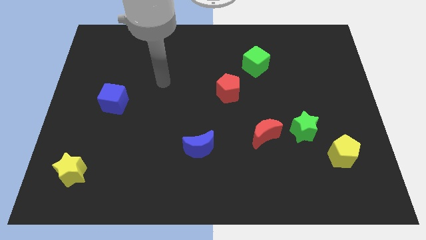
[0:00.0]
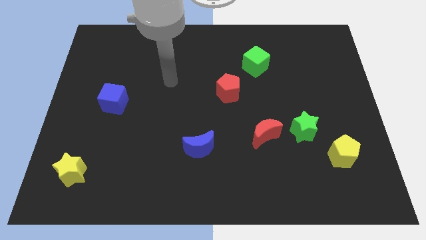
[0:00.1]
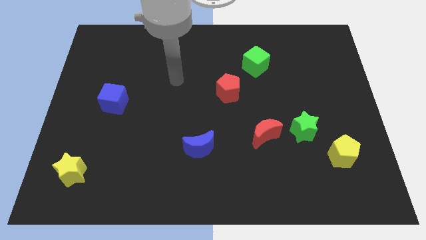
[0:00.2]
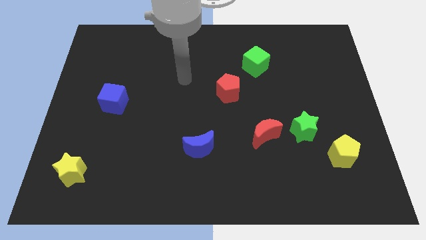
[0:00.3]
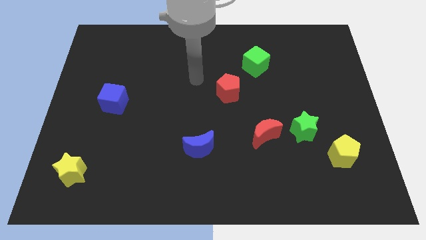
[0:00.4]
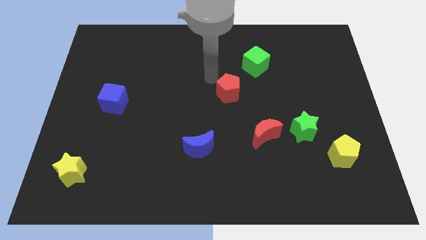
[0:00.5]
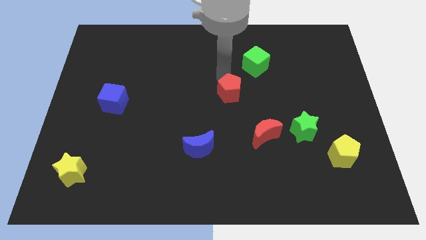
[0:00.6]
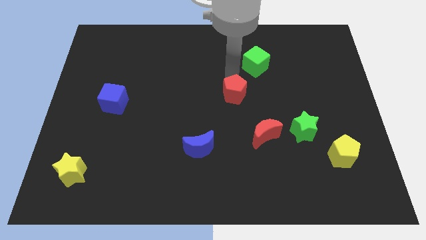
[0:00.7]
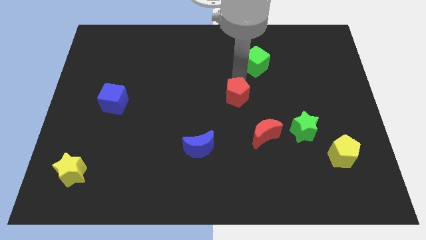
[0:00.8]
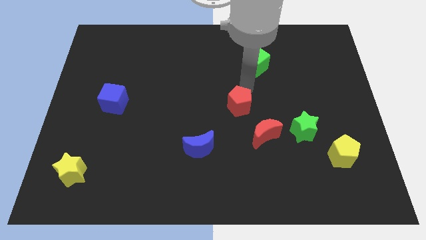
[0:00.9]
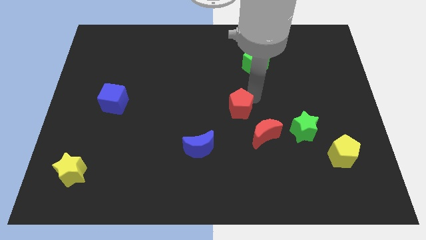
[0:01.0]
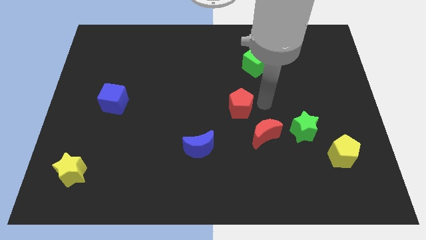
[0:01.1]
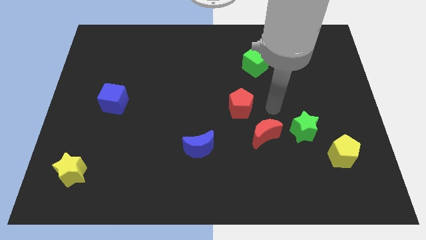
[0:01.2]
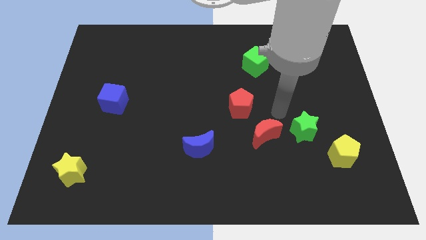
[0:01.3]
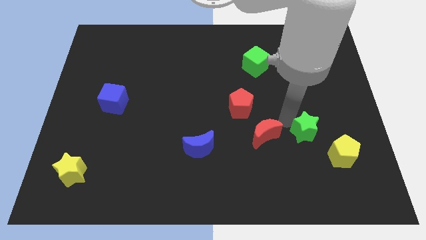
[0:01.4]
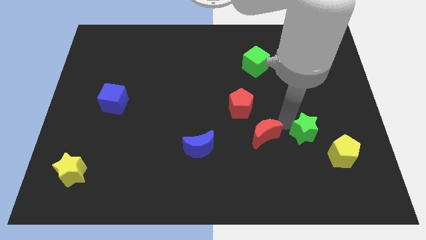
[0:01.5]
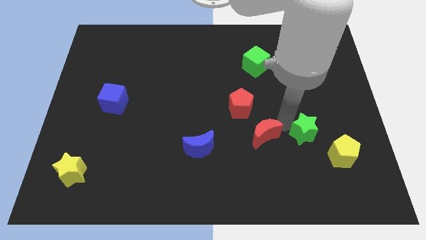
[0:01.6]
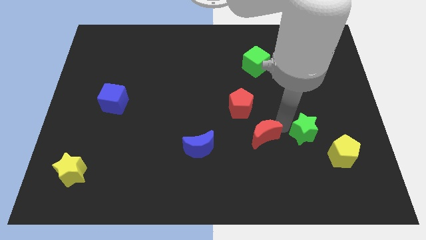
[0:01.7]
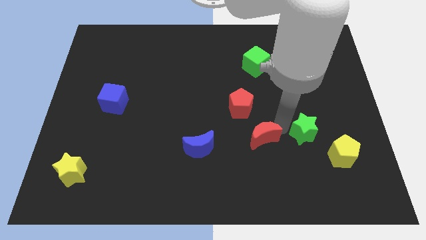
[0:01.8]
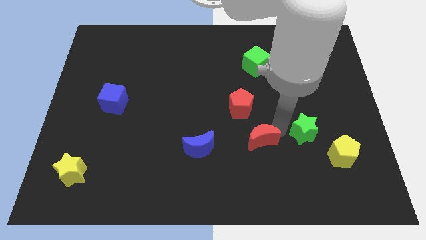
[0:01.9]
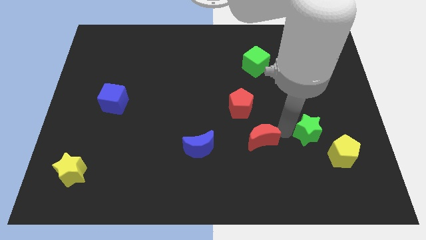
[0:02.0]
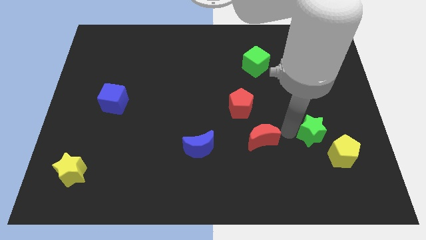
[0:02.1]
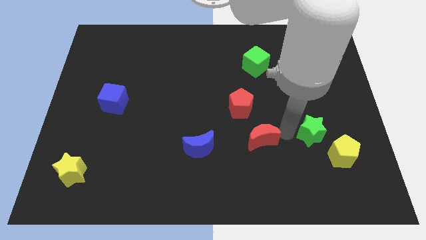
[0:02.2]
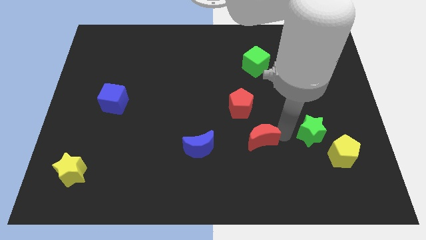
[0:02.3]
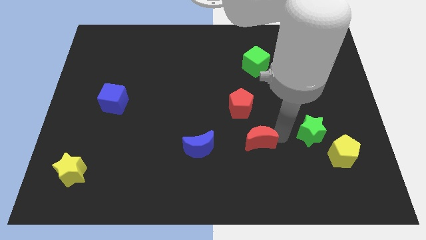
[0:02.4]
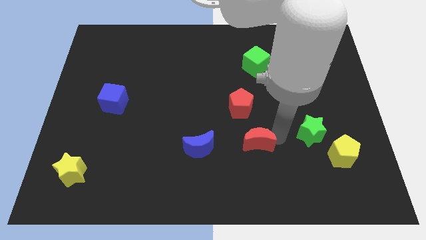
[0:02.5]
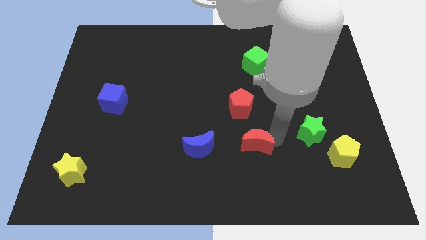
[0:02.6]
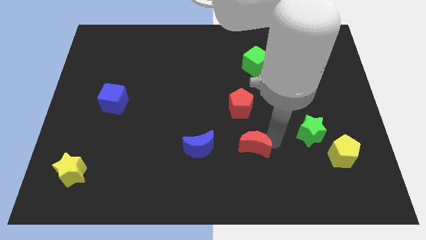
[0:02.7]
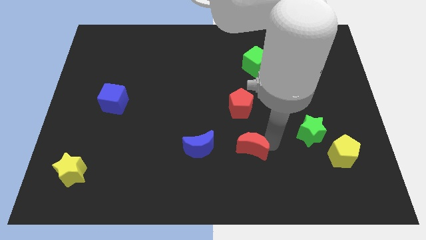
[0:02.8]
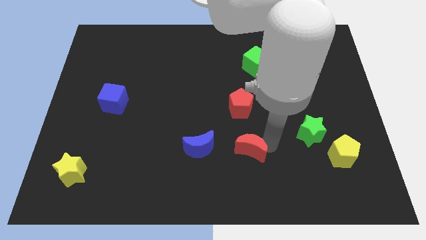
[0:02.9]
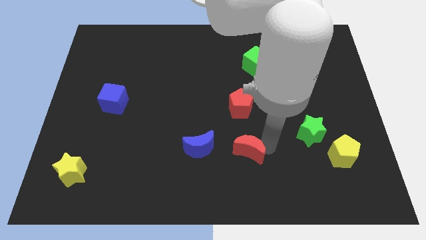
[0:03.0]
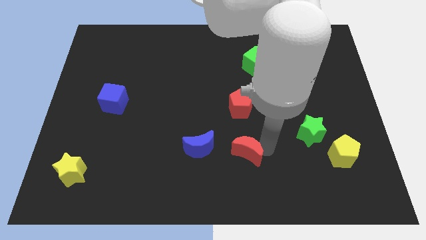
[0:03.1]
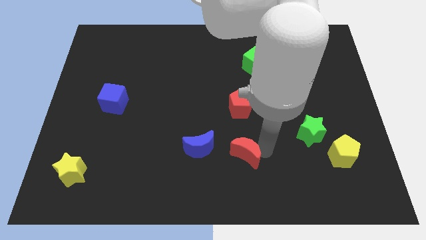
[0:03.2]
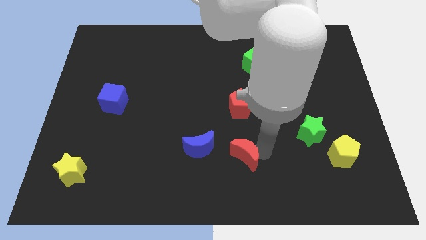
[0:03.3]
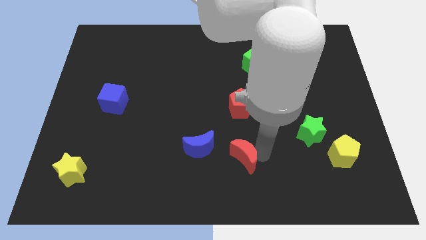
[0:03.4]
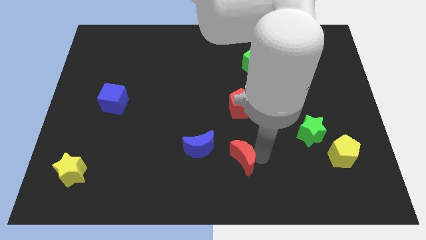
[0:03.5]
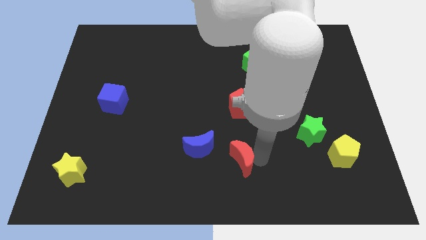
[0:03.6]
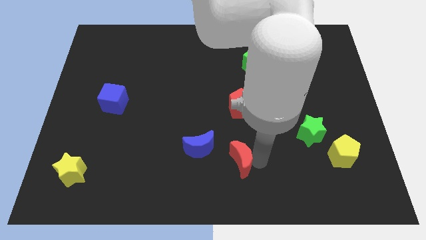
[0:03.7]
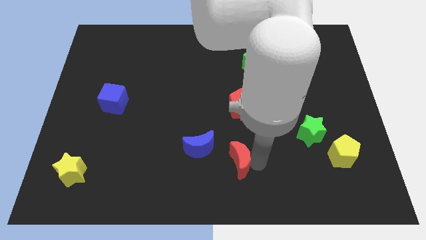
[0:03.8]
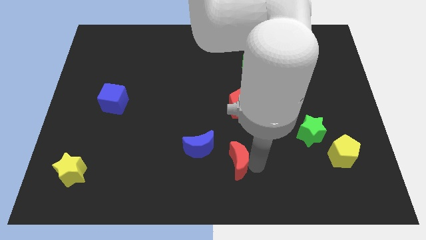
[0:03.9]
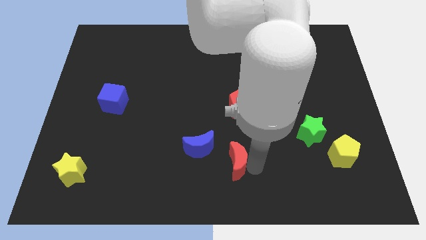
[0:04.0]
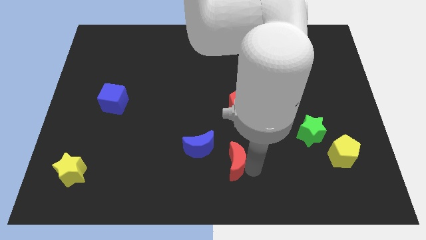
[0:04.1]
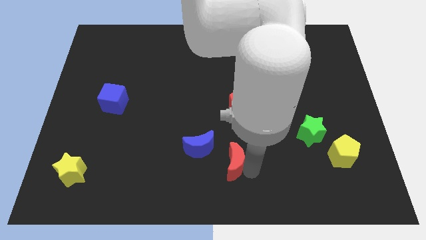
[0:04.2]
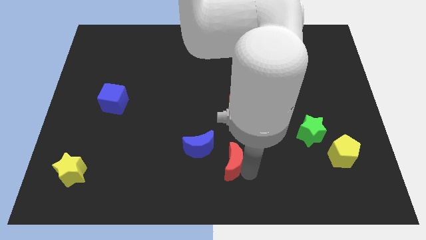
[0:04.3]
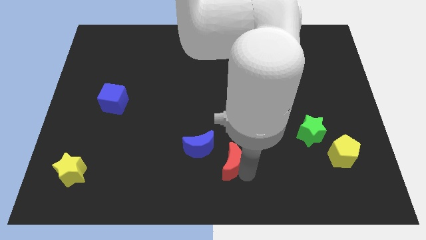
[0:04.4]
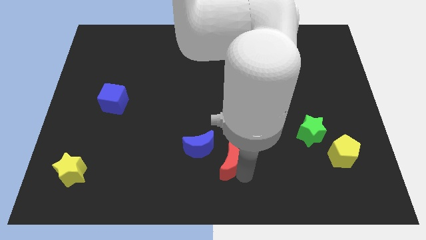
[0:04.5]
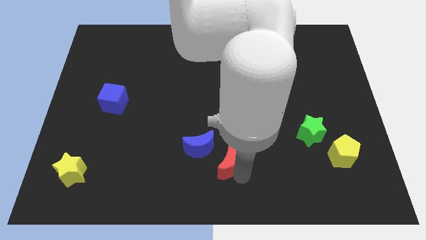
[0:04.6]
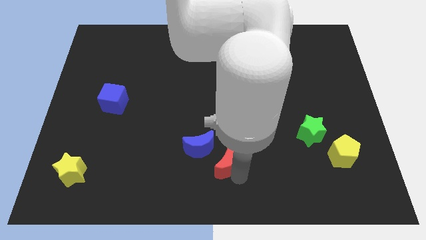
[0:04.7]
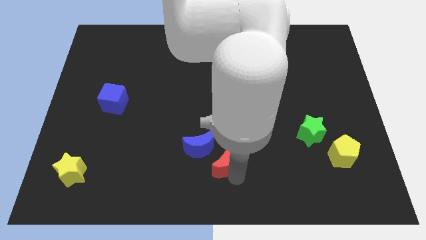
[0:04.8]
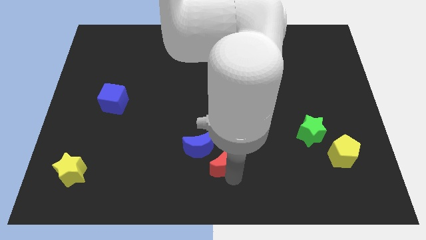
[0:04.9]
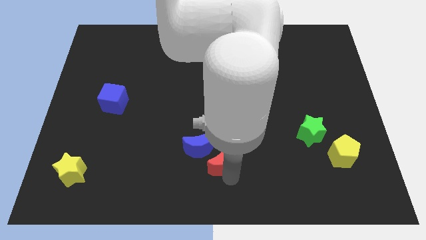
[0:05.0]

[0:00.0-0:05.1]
slide the red moon to the blue moon
